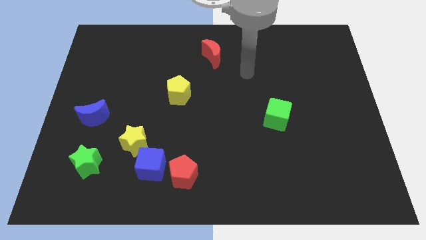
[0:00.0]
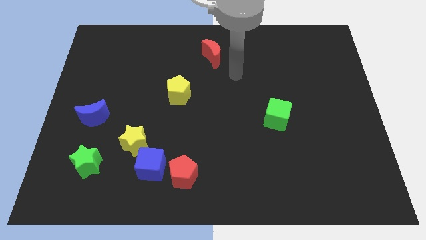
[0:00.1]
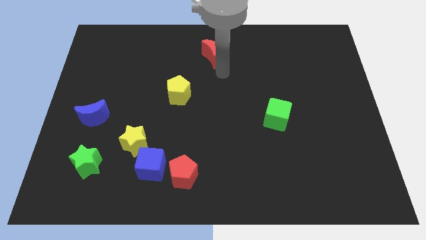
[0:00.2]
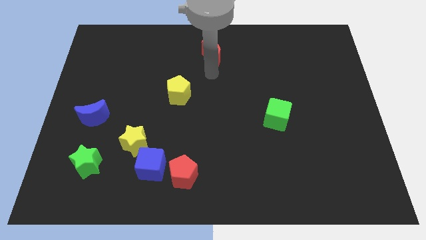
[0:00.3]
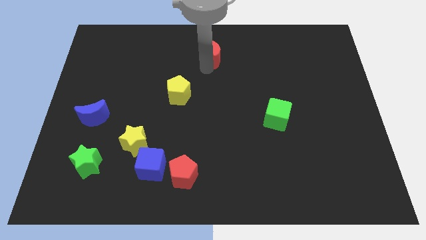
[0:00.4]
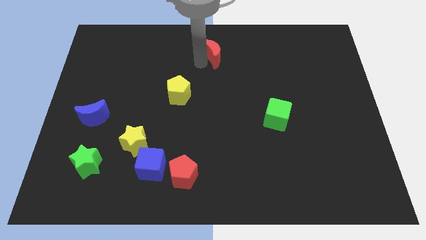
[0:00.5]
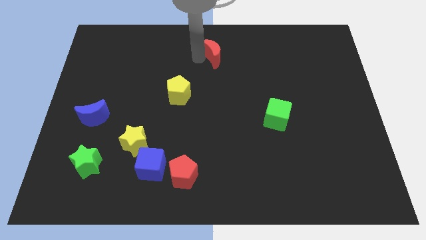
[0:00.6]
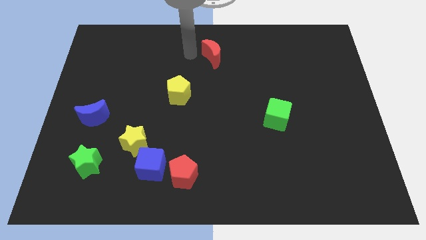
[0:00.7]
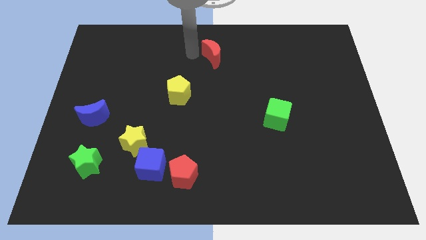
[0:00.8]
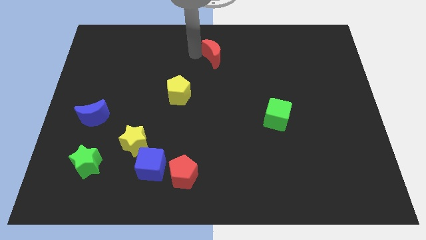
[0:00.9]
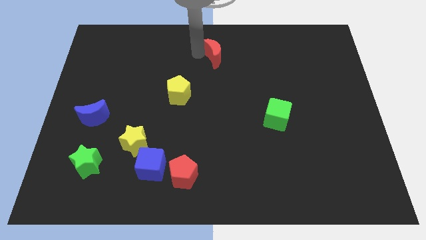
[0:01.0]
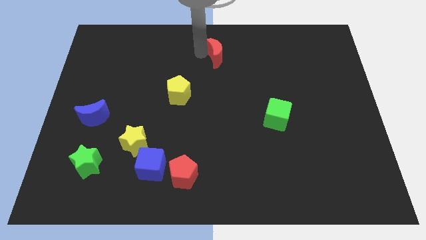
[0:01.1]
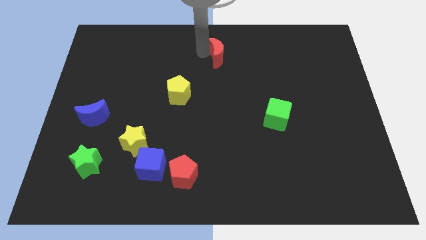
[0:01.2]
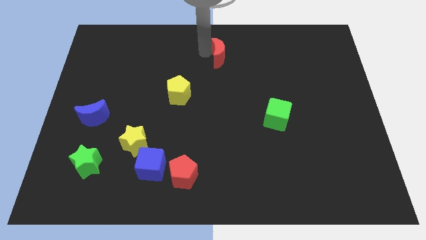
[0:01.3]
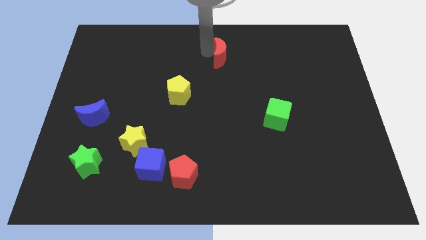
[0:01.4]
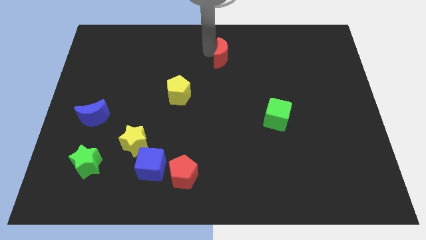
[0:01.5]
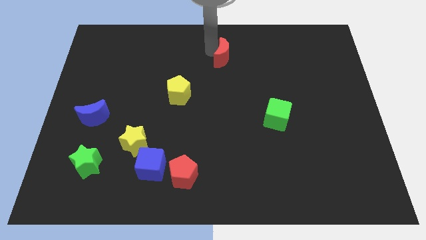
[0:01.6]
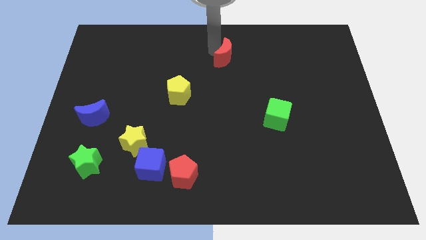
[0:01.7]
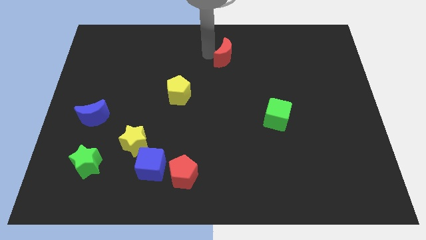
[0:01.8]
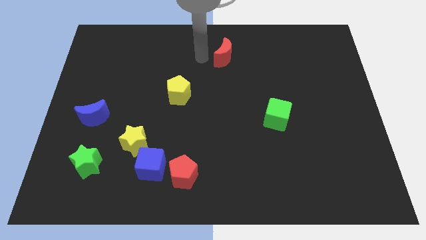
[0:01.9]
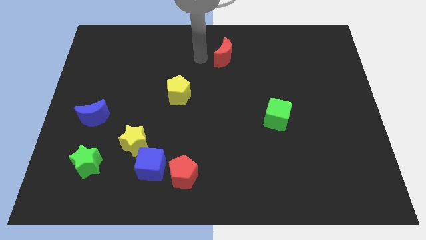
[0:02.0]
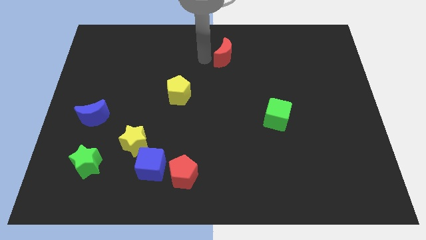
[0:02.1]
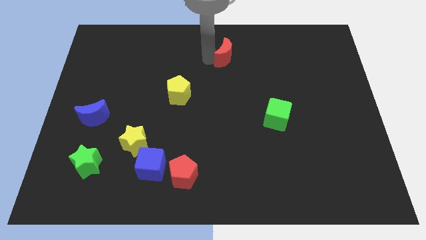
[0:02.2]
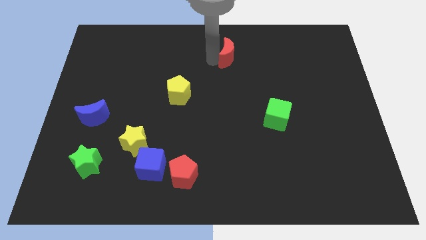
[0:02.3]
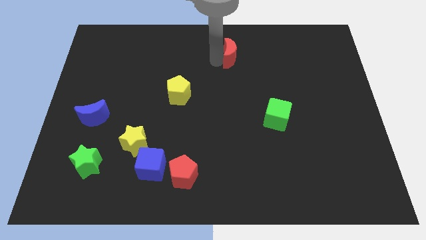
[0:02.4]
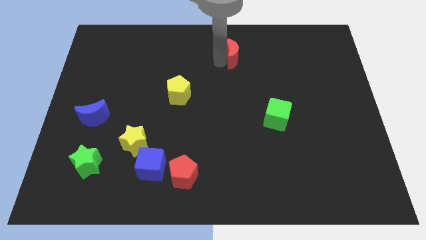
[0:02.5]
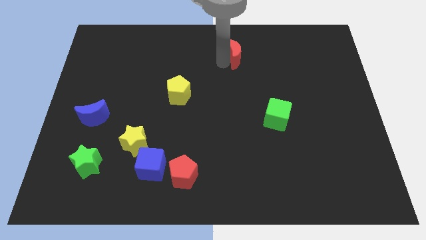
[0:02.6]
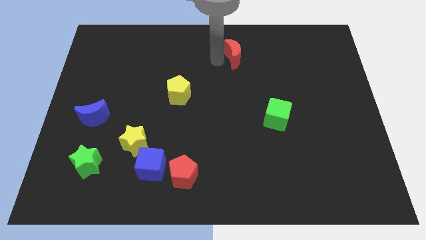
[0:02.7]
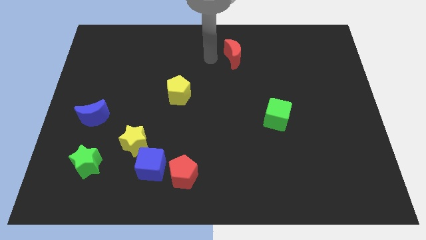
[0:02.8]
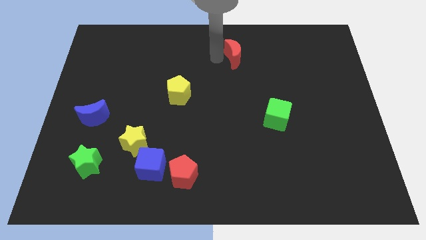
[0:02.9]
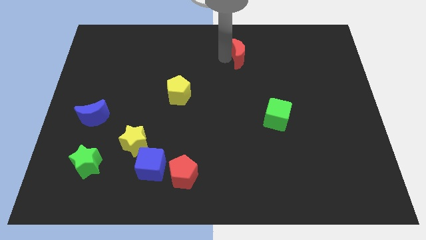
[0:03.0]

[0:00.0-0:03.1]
slide the red moon right a little

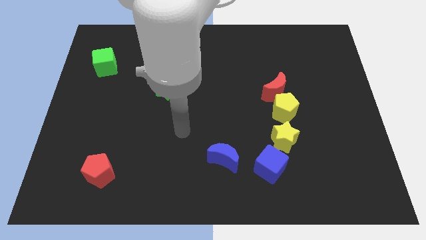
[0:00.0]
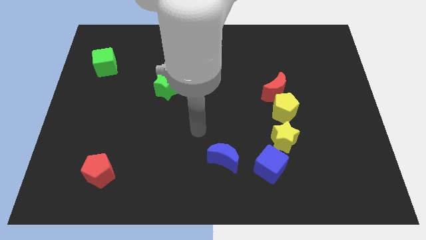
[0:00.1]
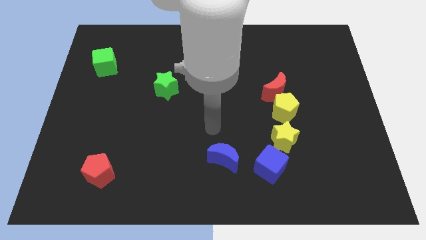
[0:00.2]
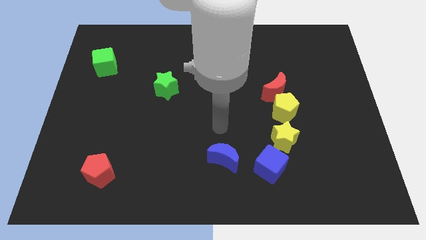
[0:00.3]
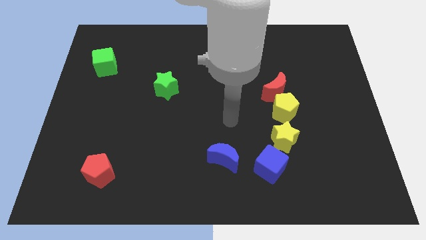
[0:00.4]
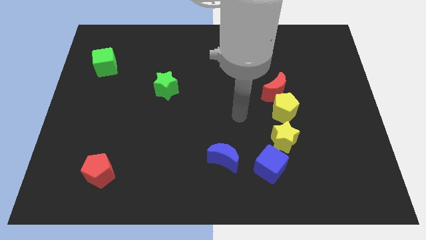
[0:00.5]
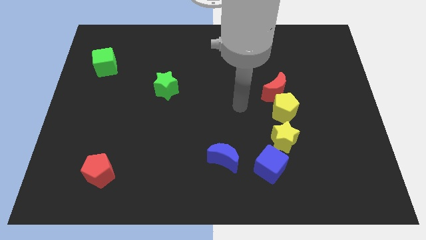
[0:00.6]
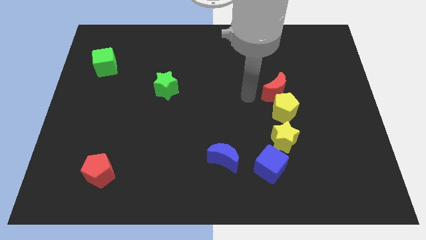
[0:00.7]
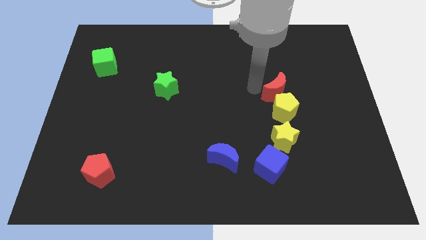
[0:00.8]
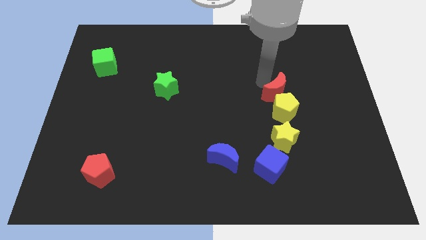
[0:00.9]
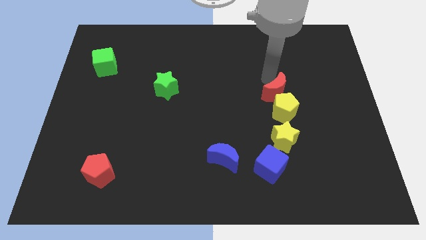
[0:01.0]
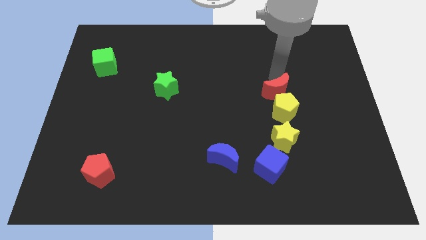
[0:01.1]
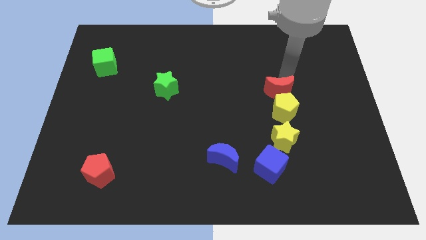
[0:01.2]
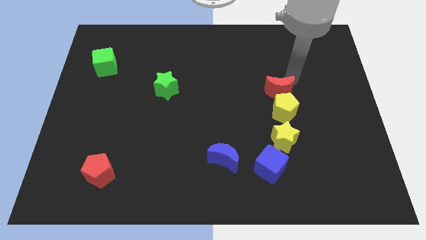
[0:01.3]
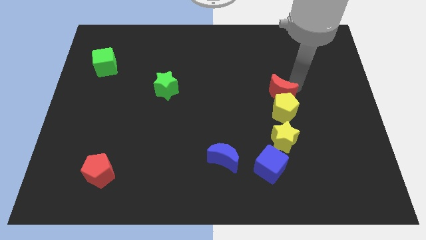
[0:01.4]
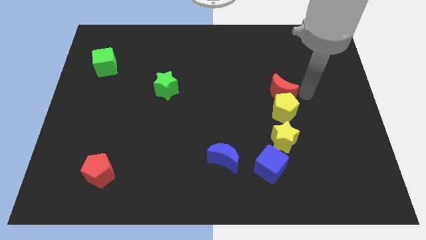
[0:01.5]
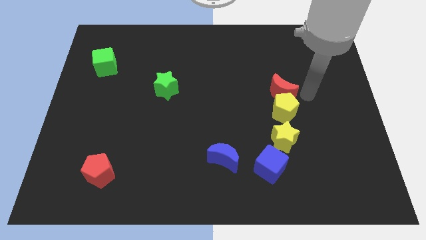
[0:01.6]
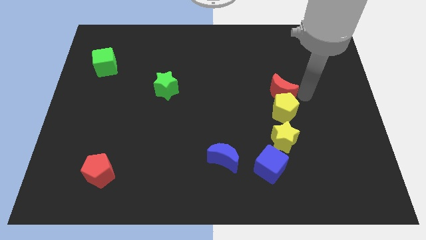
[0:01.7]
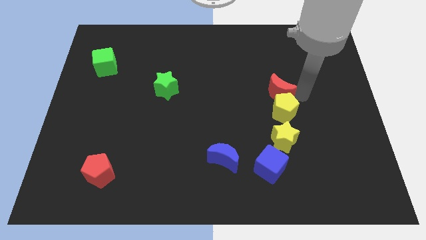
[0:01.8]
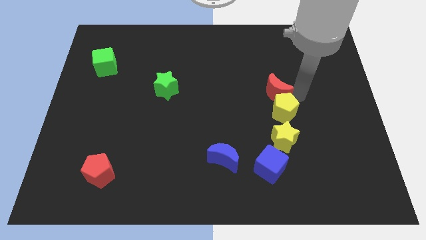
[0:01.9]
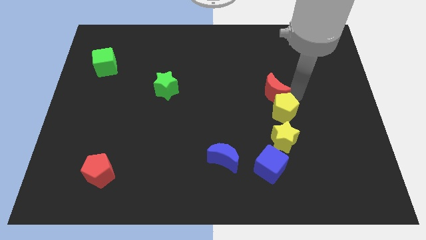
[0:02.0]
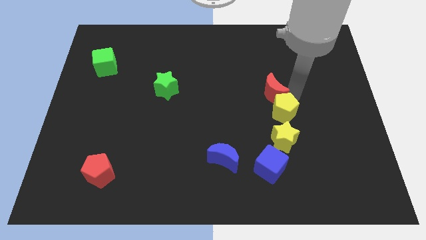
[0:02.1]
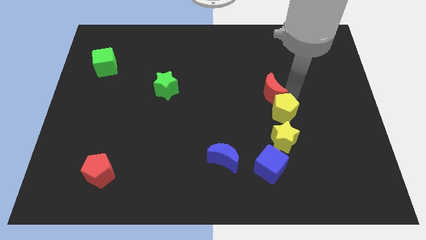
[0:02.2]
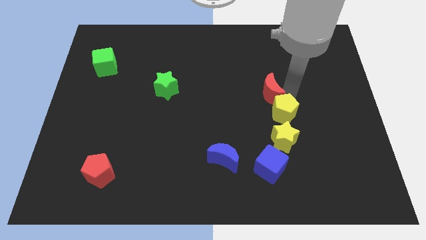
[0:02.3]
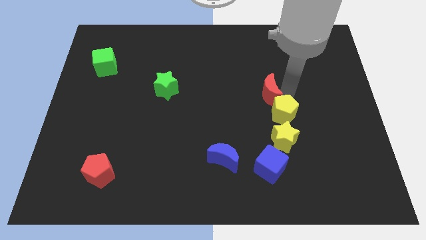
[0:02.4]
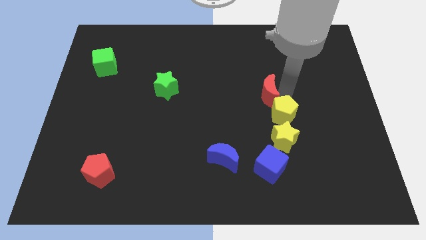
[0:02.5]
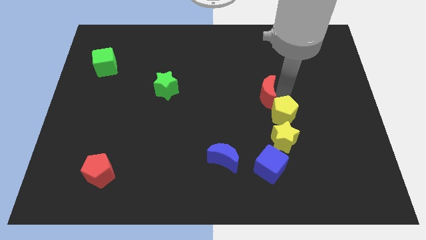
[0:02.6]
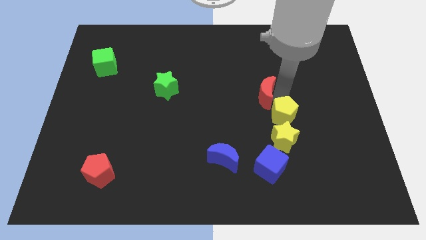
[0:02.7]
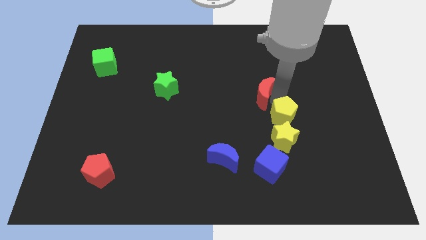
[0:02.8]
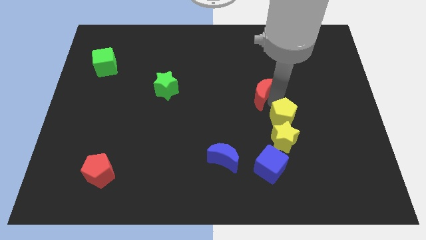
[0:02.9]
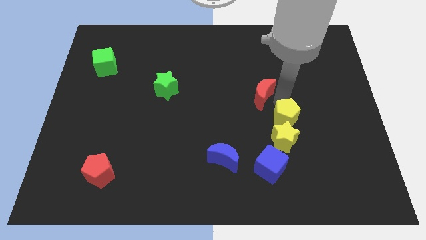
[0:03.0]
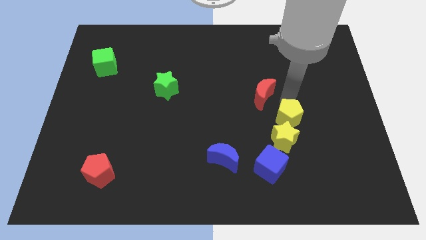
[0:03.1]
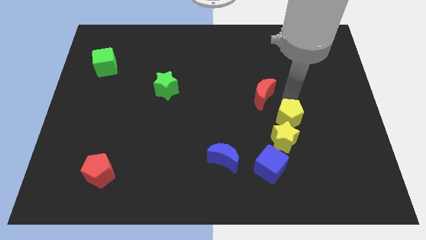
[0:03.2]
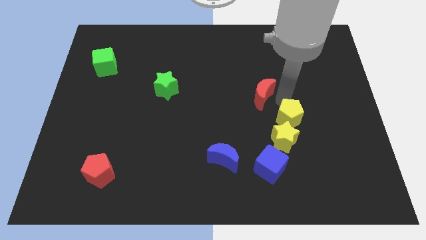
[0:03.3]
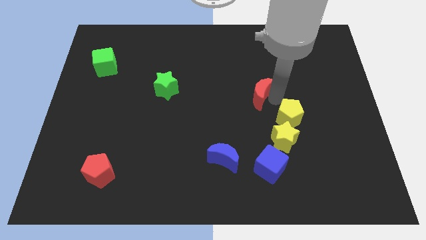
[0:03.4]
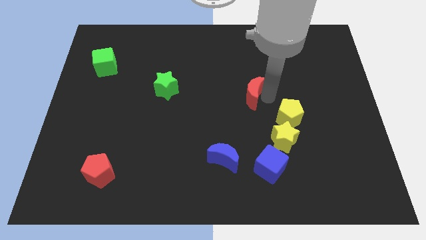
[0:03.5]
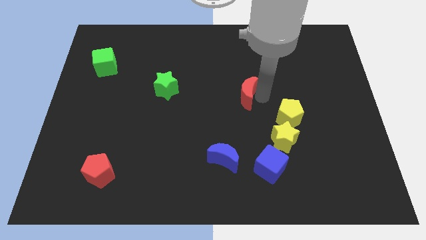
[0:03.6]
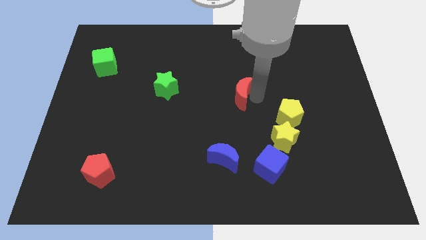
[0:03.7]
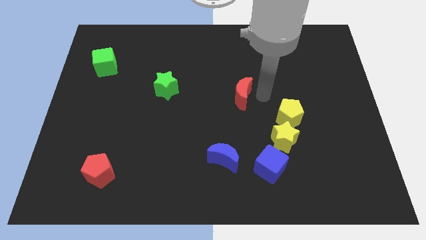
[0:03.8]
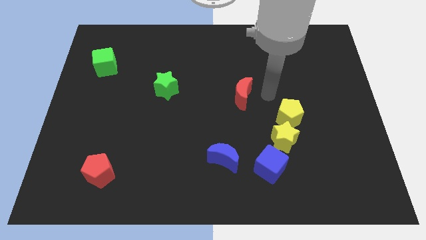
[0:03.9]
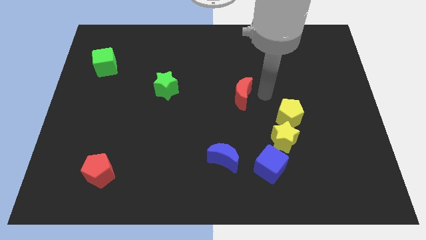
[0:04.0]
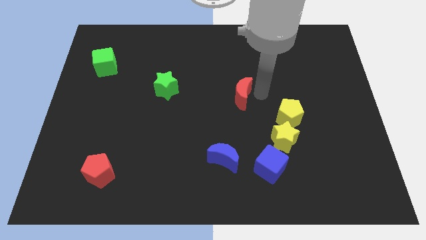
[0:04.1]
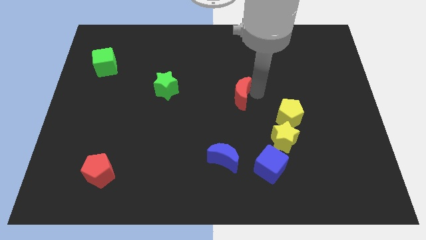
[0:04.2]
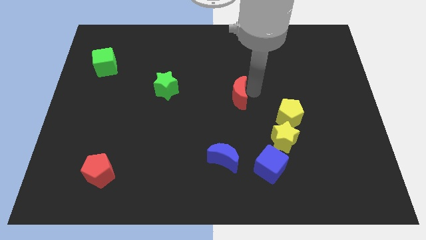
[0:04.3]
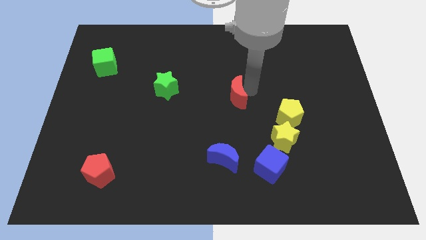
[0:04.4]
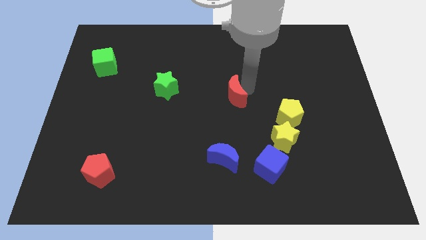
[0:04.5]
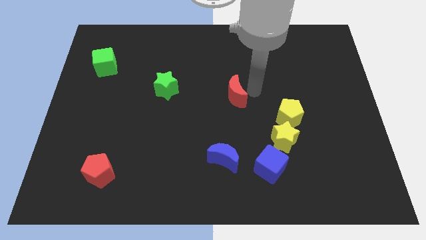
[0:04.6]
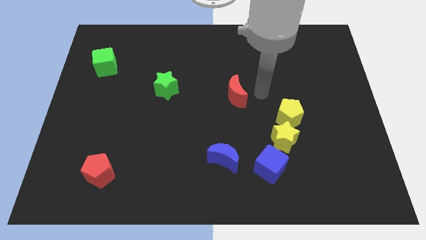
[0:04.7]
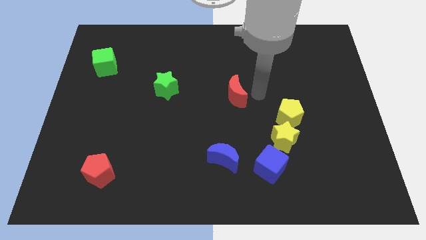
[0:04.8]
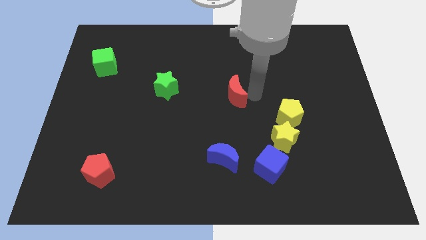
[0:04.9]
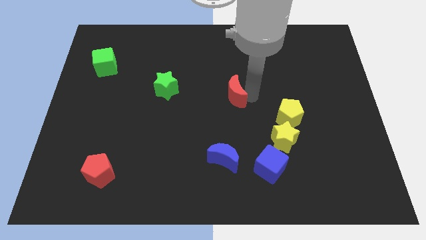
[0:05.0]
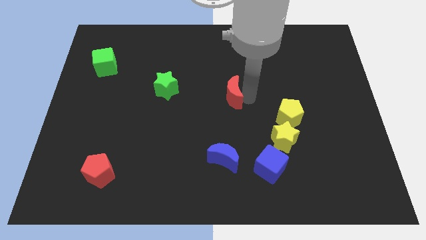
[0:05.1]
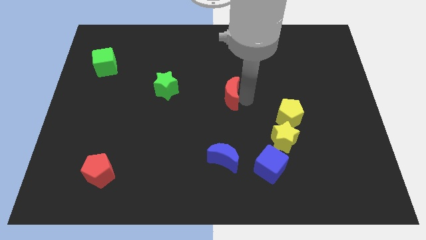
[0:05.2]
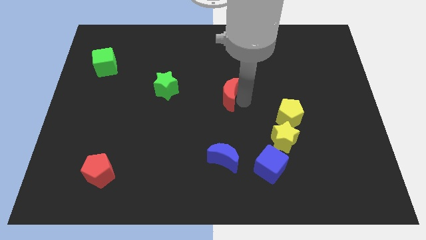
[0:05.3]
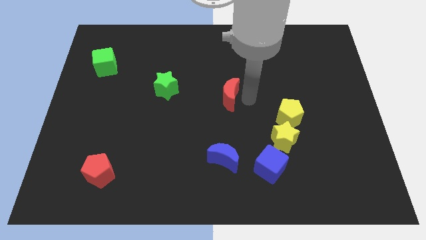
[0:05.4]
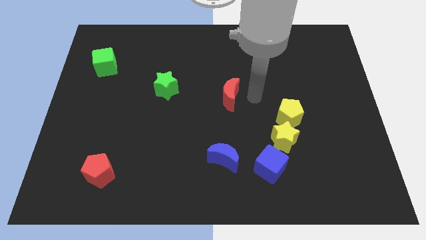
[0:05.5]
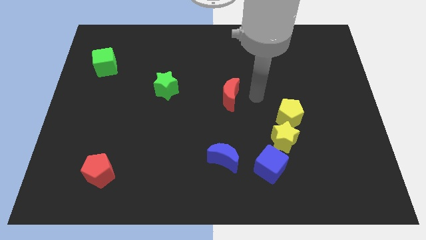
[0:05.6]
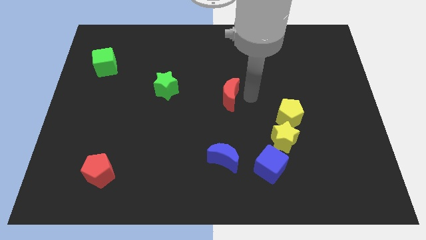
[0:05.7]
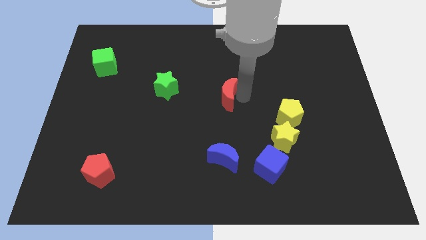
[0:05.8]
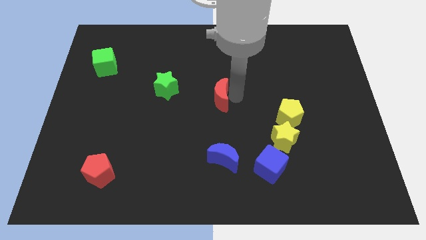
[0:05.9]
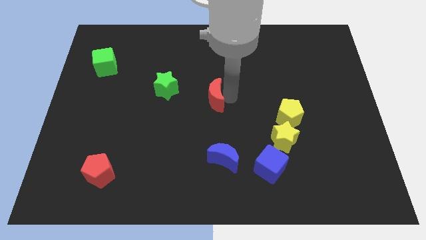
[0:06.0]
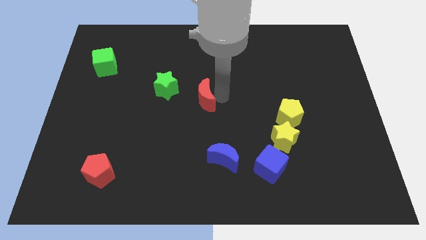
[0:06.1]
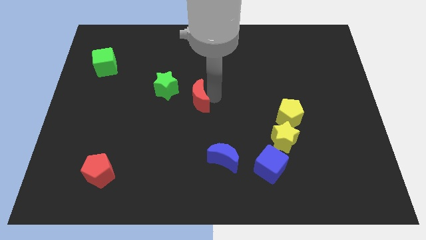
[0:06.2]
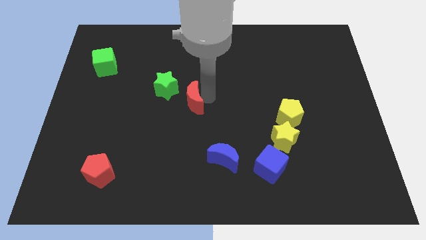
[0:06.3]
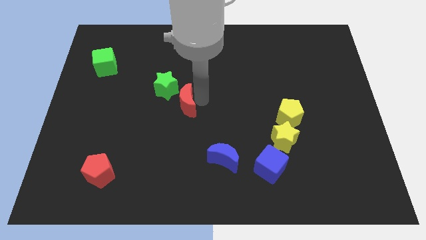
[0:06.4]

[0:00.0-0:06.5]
move the red moon to the left
